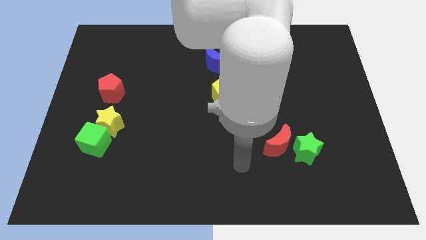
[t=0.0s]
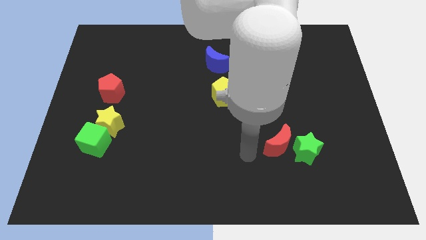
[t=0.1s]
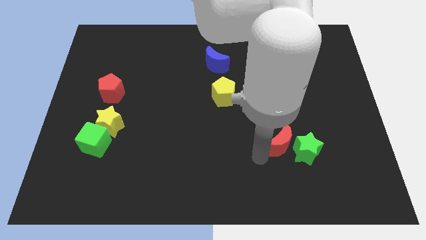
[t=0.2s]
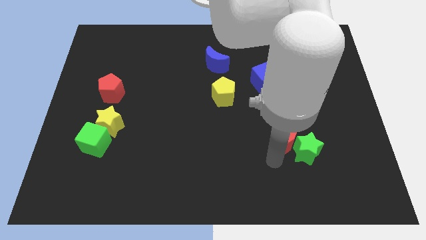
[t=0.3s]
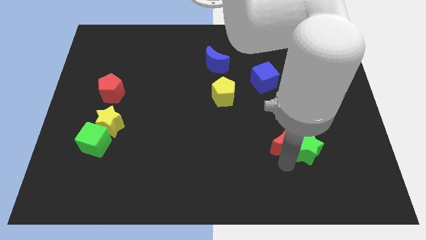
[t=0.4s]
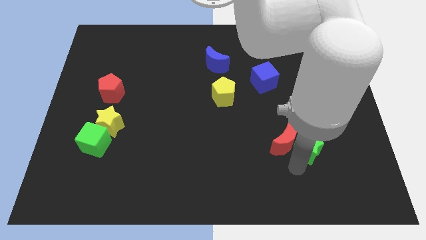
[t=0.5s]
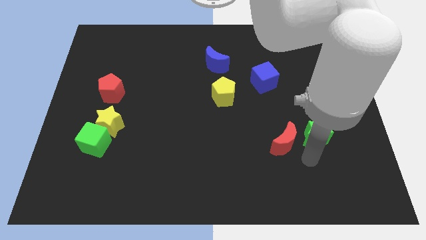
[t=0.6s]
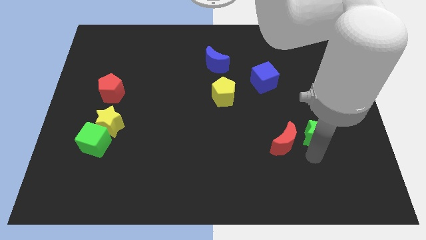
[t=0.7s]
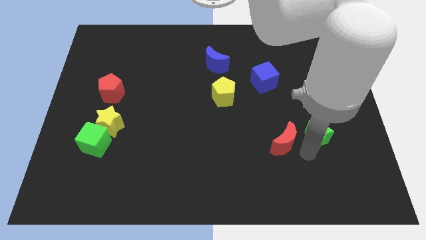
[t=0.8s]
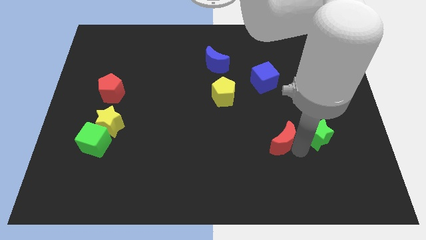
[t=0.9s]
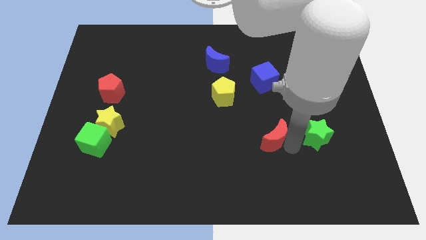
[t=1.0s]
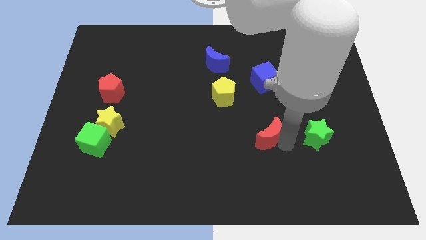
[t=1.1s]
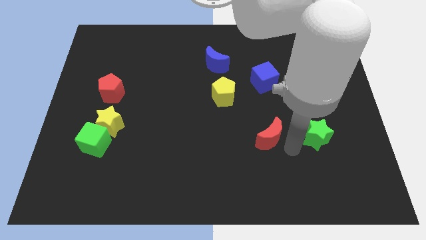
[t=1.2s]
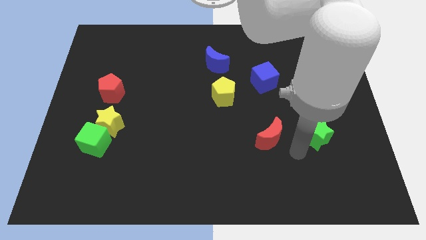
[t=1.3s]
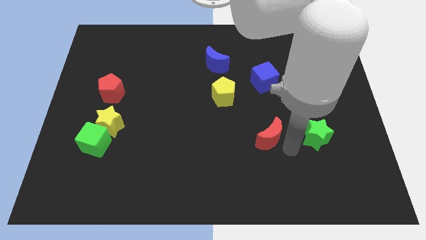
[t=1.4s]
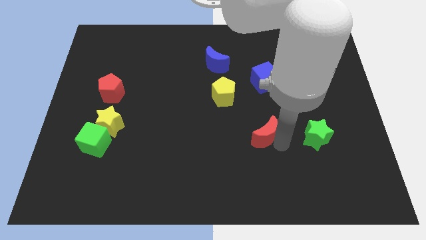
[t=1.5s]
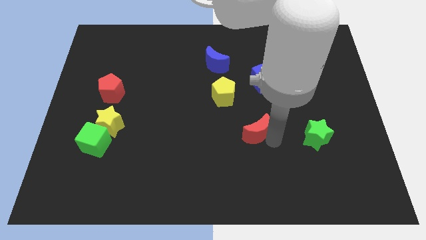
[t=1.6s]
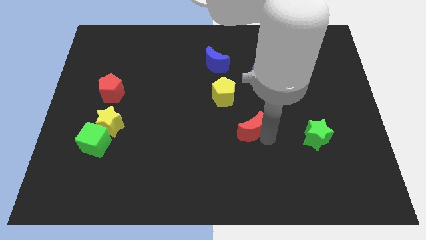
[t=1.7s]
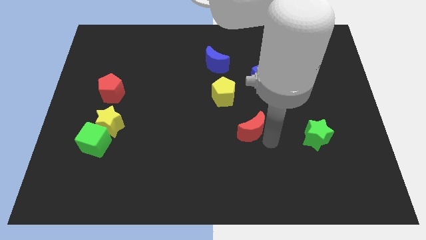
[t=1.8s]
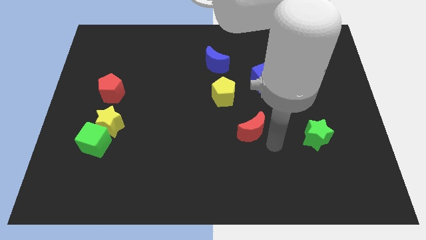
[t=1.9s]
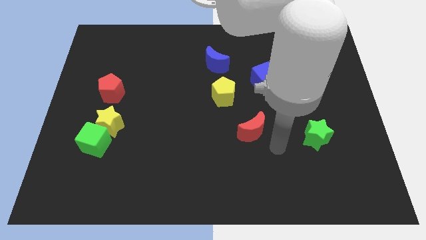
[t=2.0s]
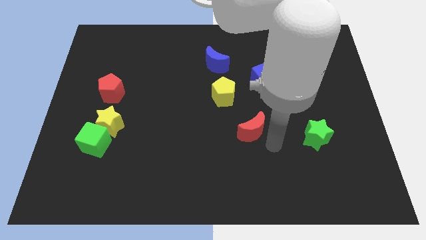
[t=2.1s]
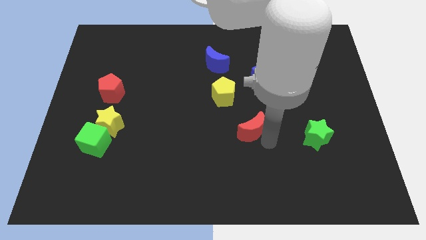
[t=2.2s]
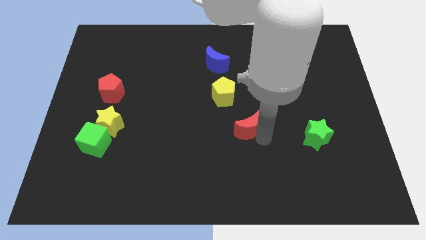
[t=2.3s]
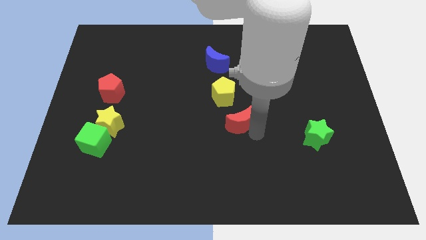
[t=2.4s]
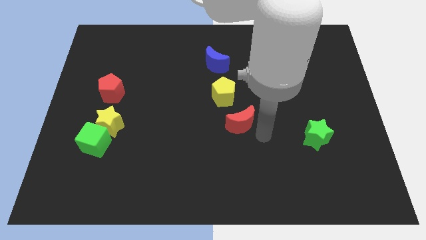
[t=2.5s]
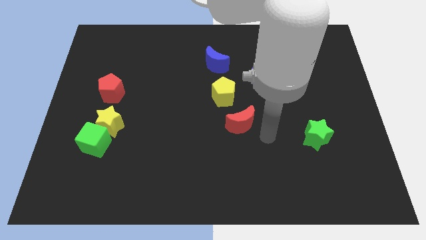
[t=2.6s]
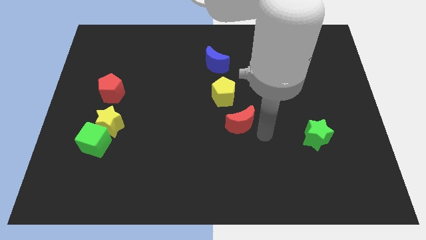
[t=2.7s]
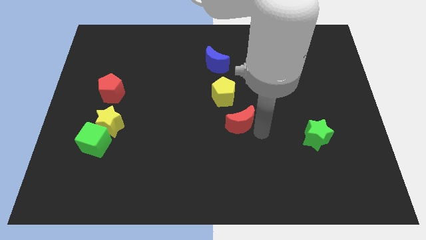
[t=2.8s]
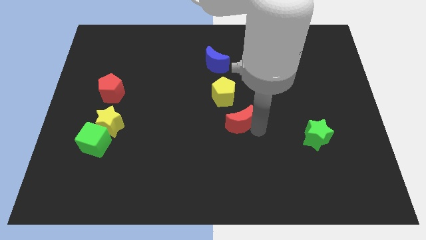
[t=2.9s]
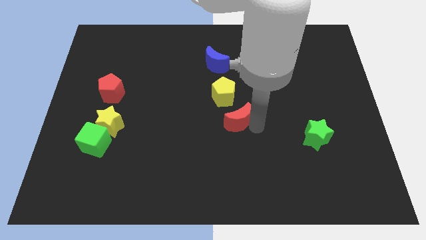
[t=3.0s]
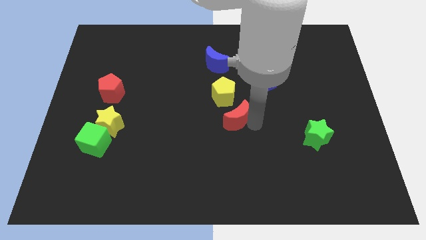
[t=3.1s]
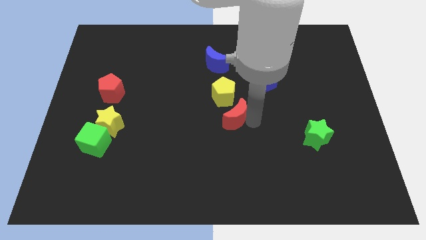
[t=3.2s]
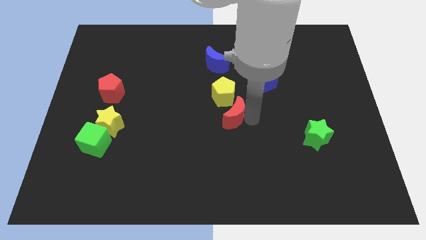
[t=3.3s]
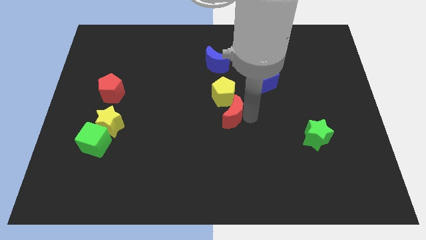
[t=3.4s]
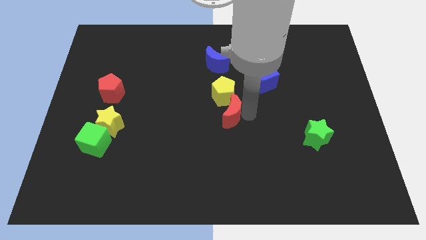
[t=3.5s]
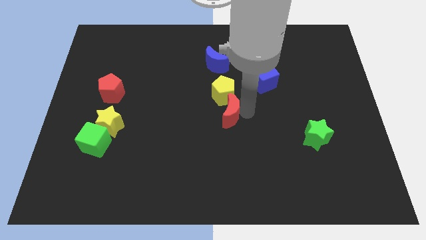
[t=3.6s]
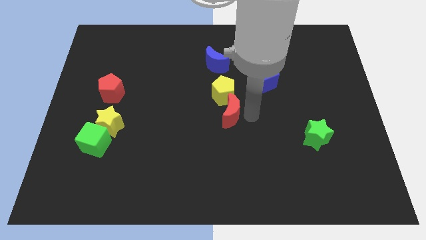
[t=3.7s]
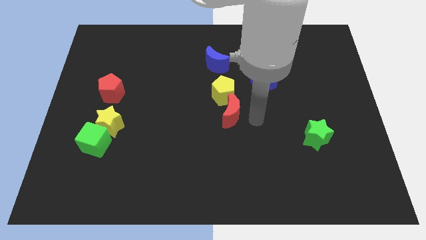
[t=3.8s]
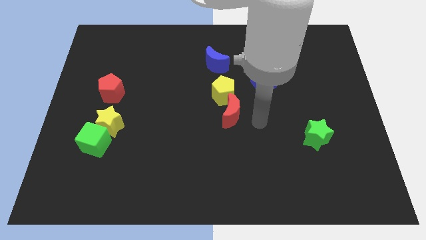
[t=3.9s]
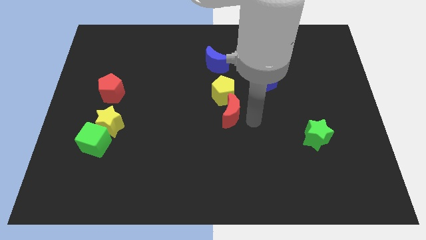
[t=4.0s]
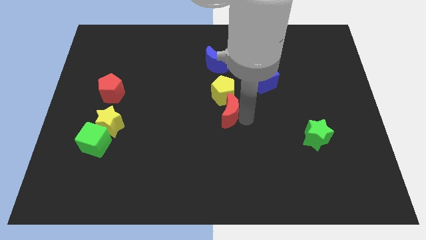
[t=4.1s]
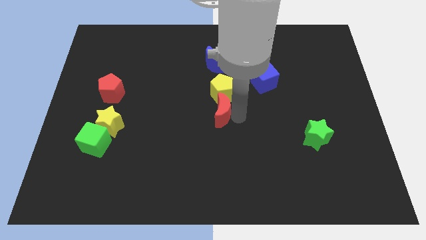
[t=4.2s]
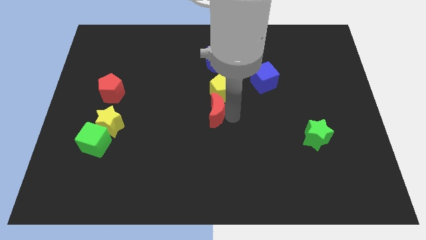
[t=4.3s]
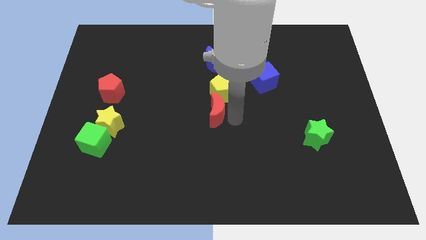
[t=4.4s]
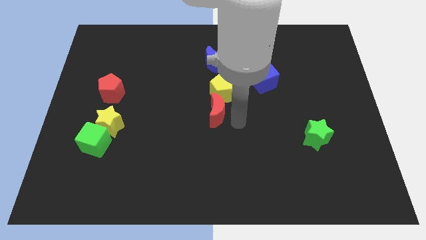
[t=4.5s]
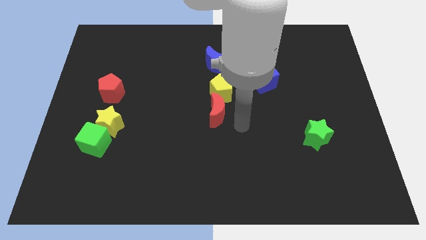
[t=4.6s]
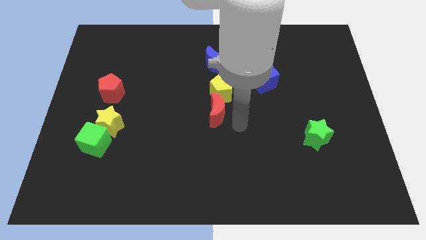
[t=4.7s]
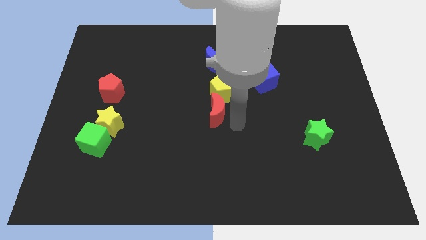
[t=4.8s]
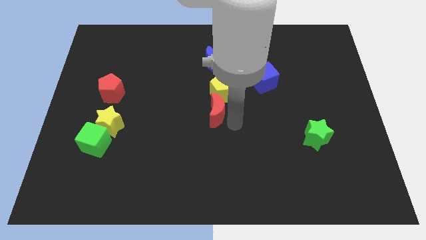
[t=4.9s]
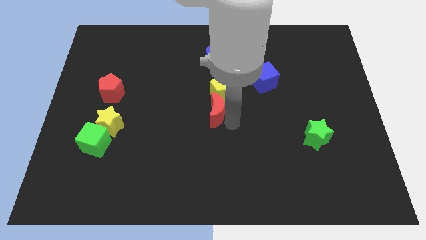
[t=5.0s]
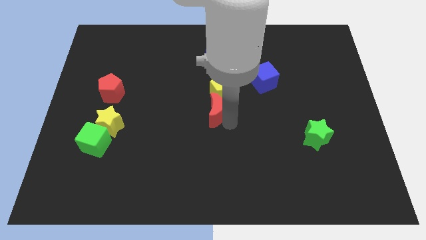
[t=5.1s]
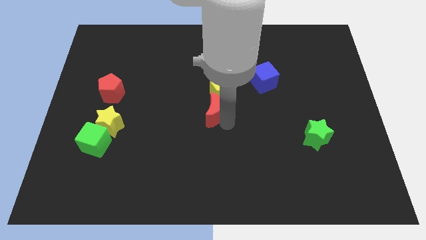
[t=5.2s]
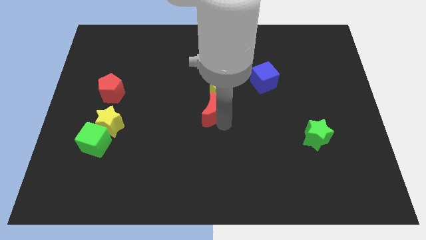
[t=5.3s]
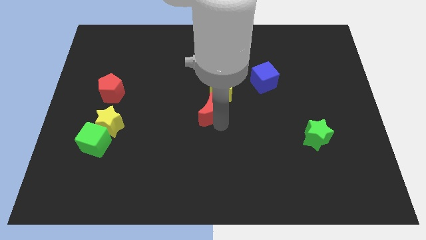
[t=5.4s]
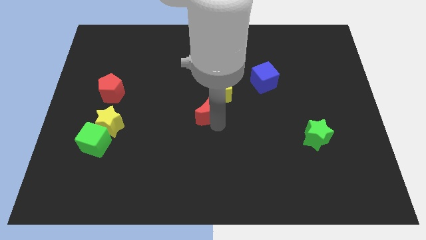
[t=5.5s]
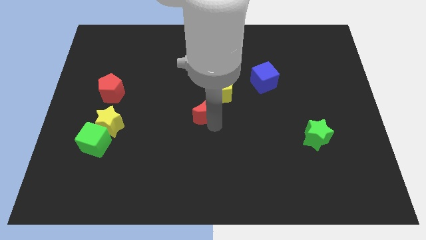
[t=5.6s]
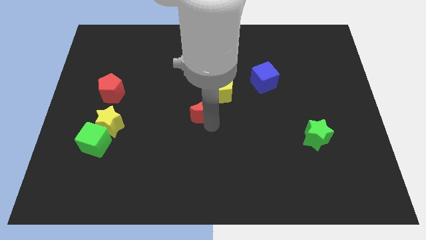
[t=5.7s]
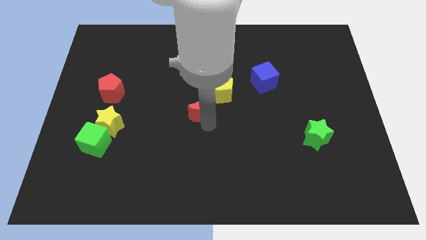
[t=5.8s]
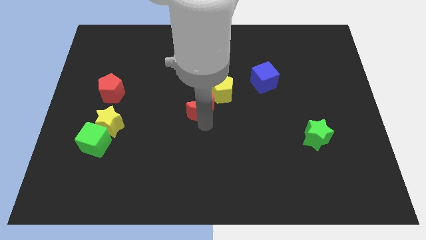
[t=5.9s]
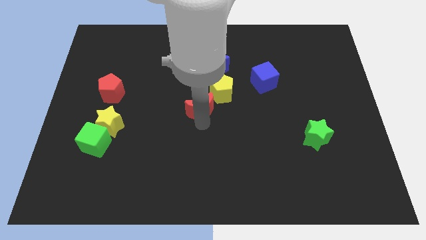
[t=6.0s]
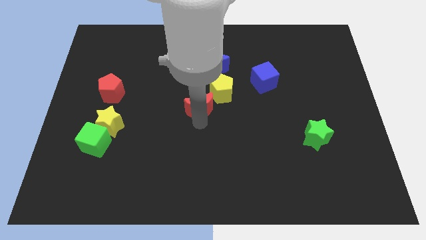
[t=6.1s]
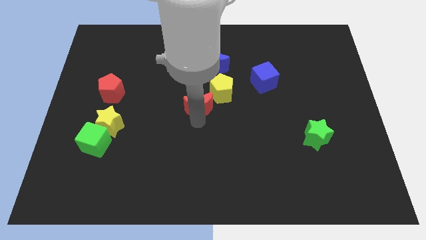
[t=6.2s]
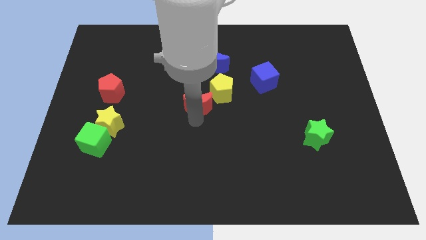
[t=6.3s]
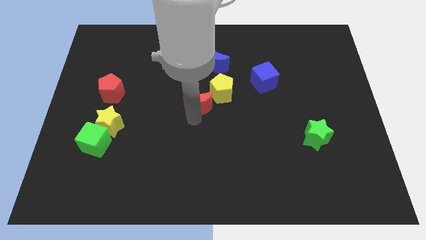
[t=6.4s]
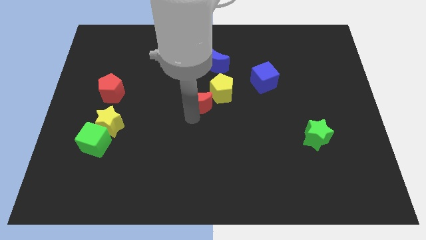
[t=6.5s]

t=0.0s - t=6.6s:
slide the red moon up and to the left diagonally

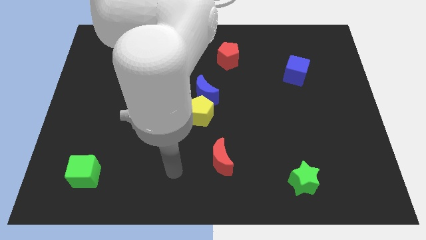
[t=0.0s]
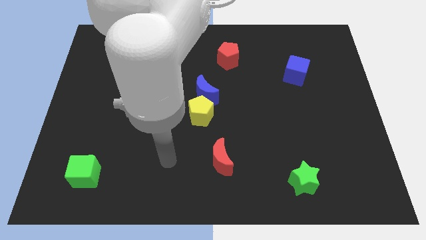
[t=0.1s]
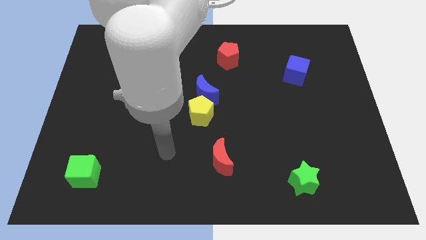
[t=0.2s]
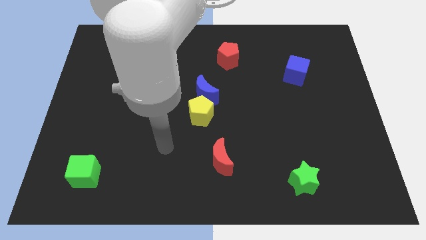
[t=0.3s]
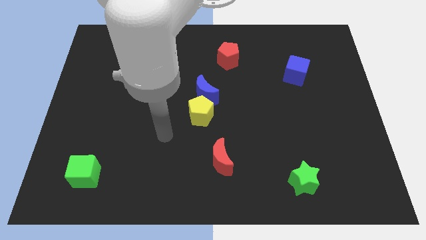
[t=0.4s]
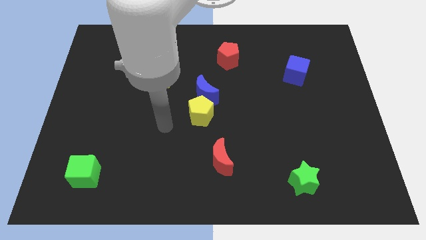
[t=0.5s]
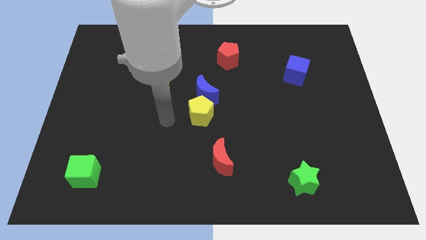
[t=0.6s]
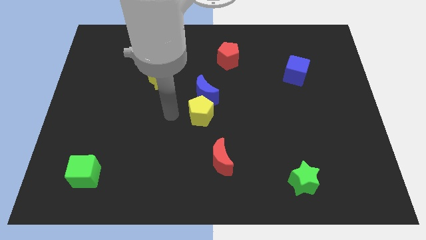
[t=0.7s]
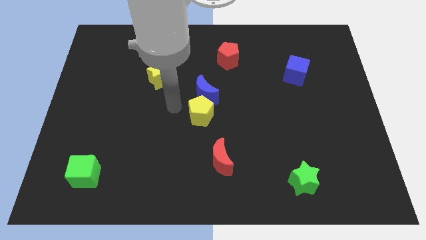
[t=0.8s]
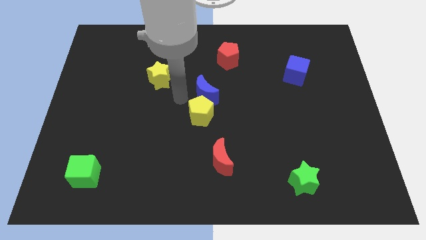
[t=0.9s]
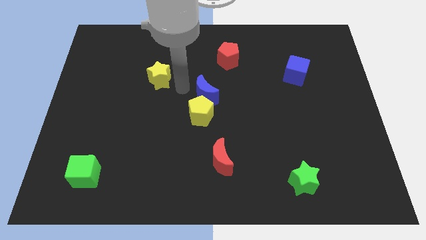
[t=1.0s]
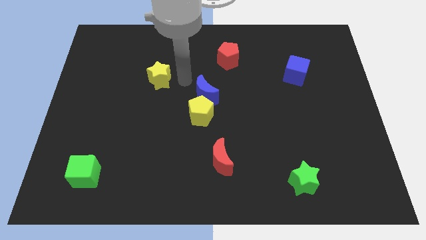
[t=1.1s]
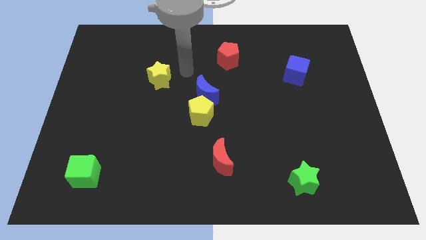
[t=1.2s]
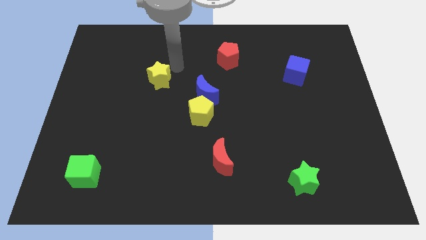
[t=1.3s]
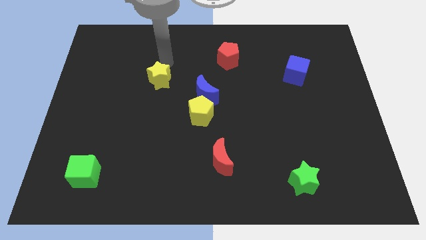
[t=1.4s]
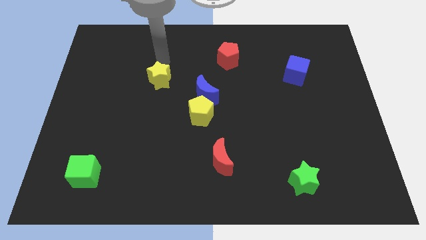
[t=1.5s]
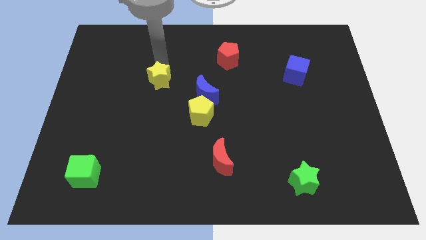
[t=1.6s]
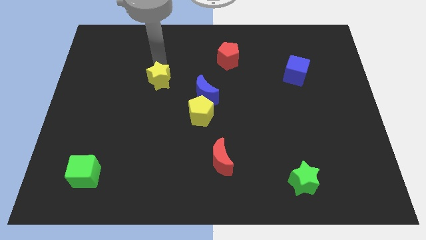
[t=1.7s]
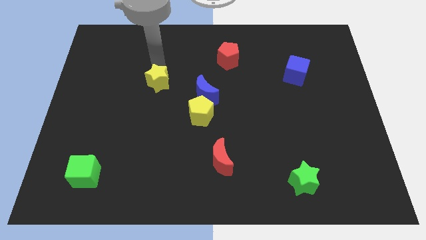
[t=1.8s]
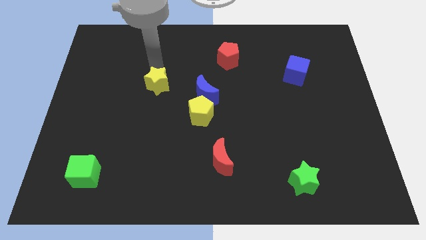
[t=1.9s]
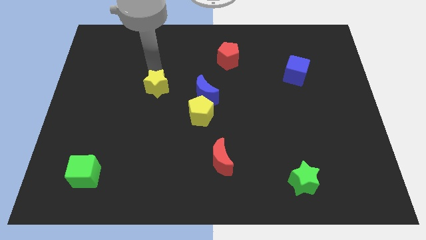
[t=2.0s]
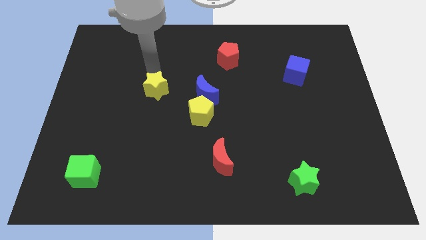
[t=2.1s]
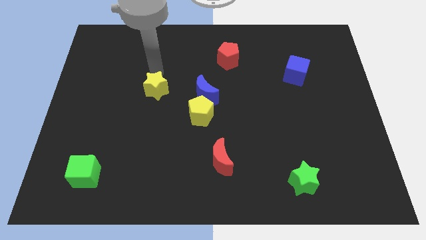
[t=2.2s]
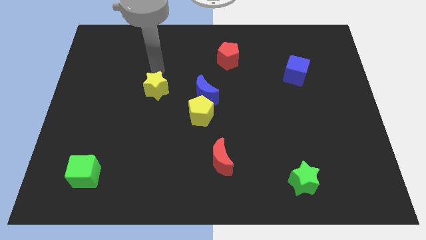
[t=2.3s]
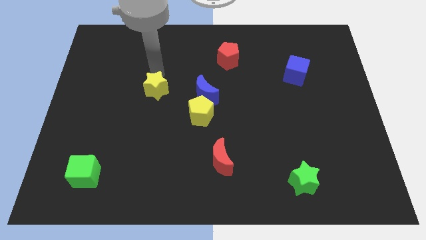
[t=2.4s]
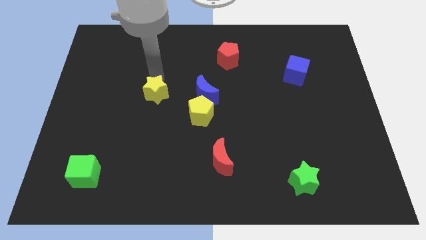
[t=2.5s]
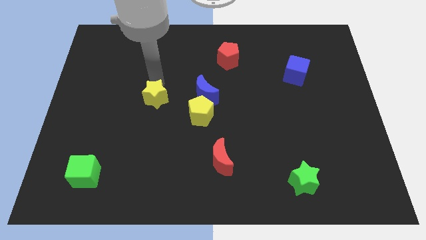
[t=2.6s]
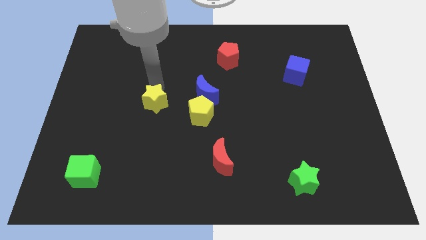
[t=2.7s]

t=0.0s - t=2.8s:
push the yellow star slightly downwards
